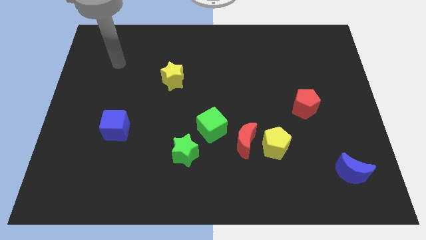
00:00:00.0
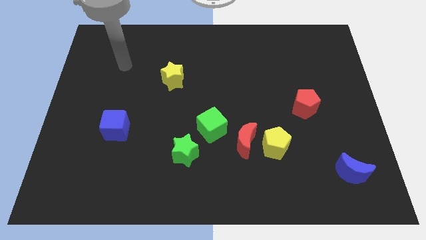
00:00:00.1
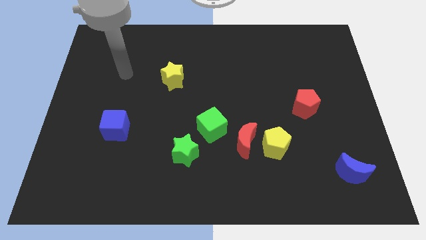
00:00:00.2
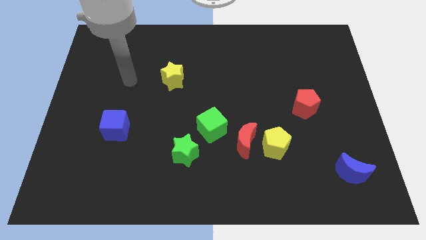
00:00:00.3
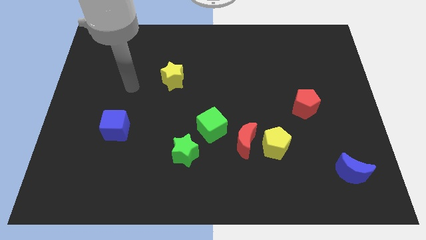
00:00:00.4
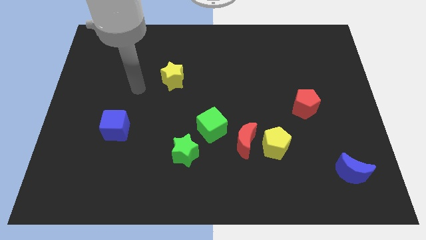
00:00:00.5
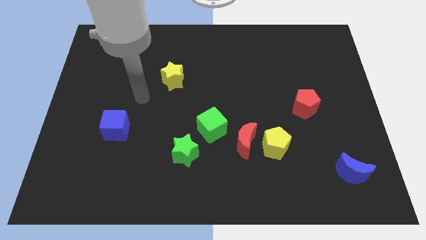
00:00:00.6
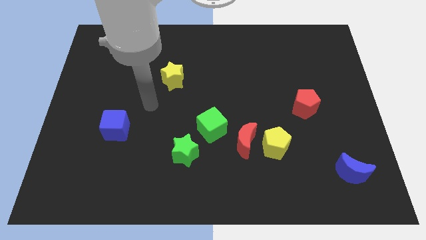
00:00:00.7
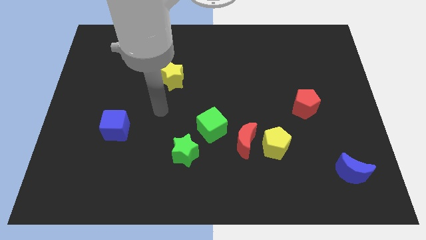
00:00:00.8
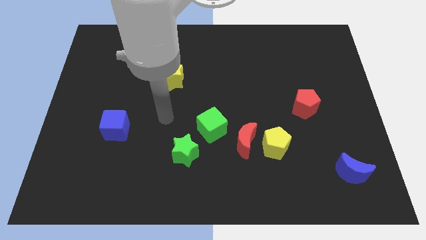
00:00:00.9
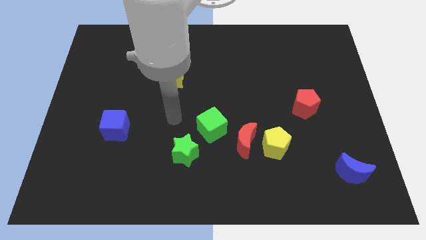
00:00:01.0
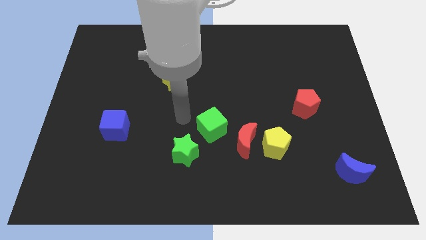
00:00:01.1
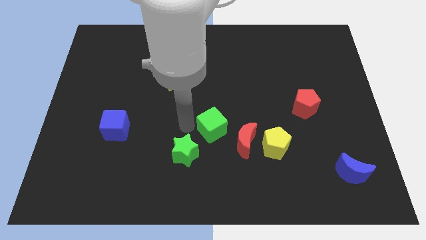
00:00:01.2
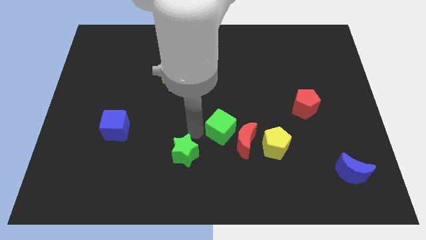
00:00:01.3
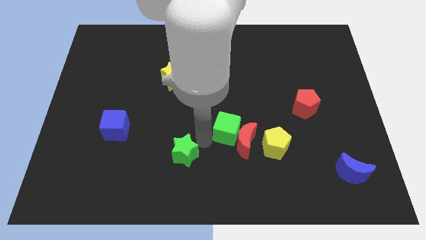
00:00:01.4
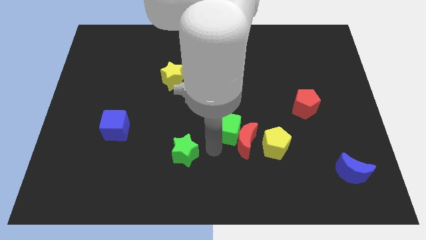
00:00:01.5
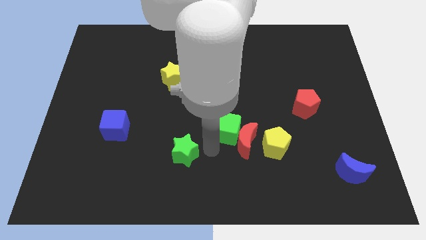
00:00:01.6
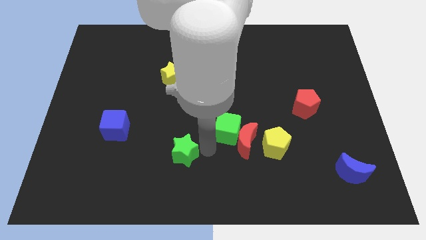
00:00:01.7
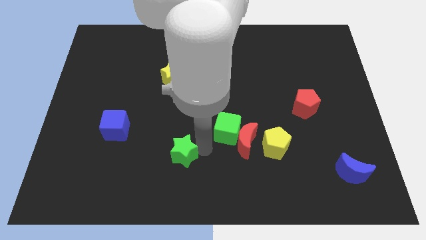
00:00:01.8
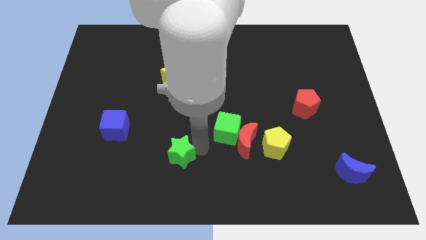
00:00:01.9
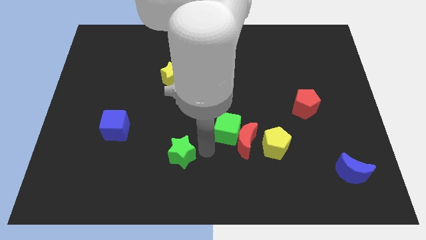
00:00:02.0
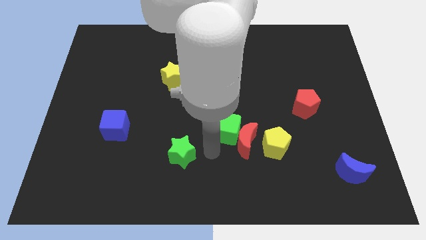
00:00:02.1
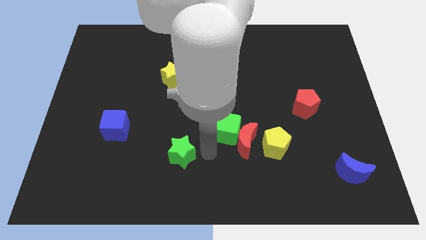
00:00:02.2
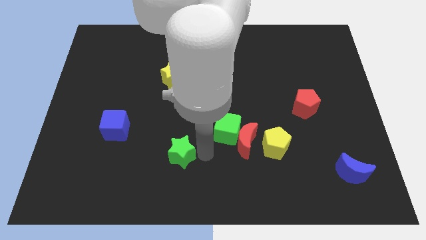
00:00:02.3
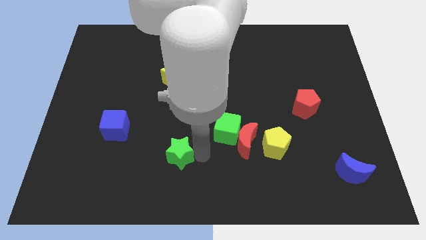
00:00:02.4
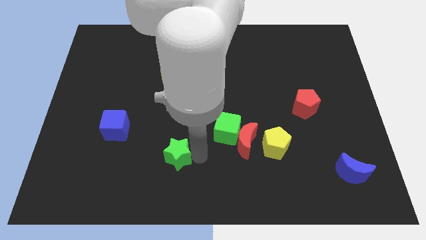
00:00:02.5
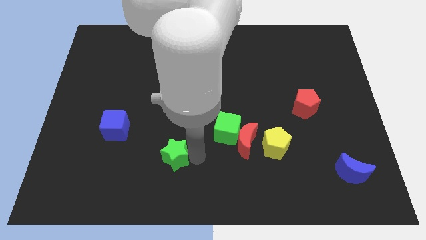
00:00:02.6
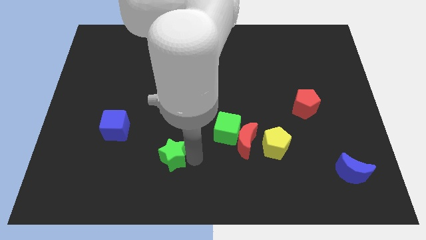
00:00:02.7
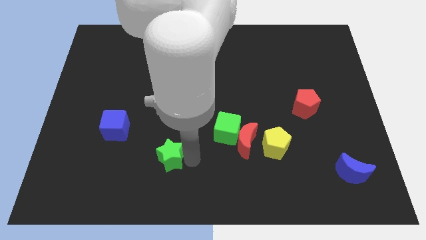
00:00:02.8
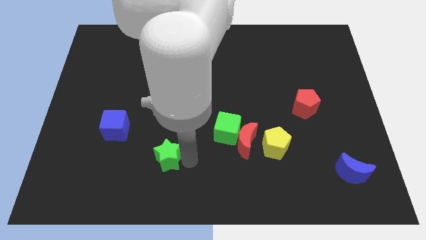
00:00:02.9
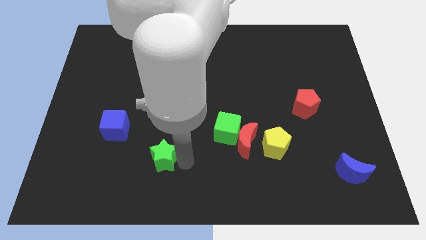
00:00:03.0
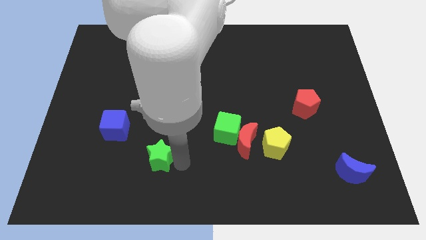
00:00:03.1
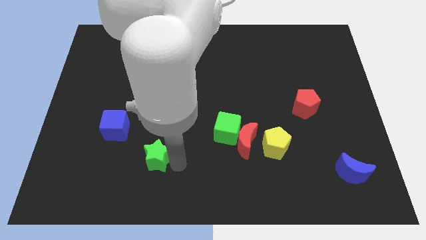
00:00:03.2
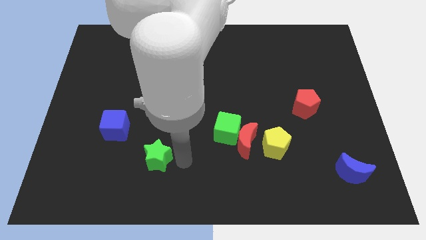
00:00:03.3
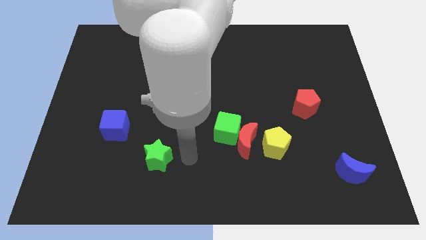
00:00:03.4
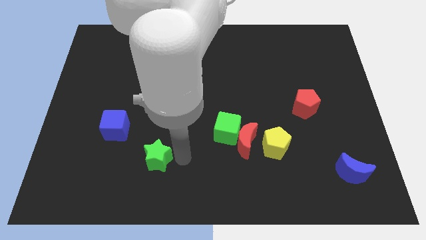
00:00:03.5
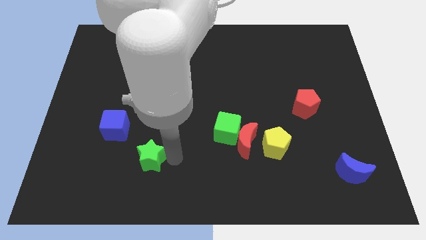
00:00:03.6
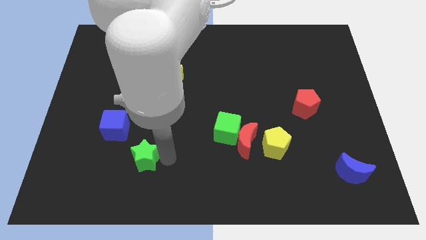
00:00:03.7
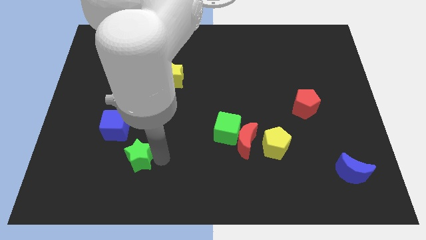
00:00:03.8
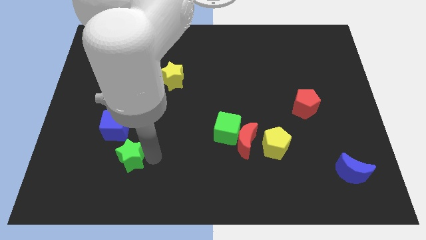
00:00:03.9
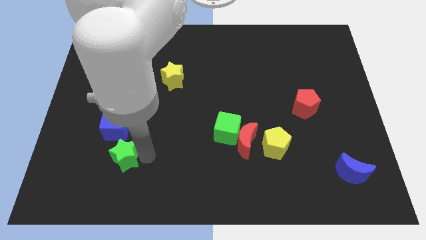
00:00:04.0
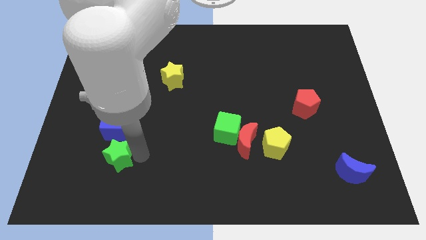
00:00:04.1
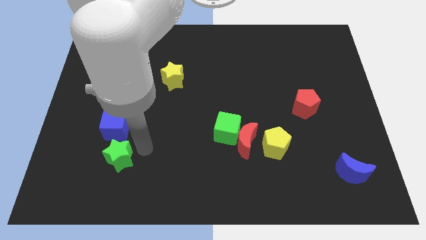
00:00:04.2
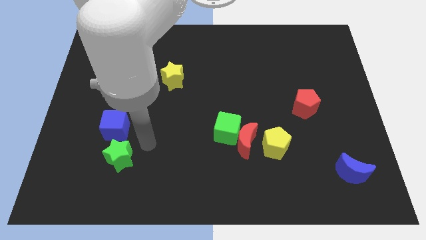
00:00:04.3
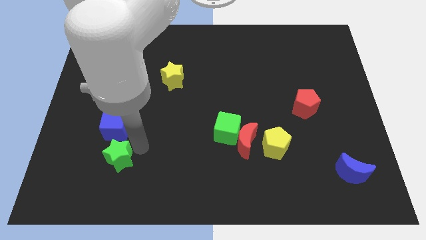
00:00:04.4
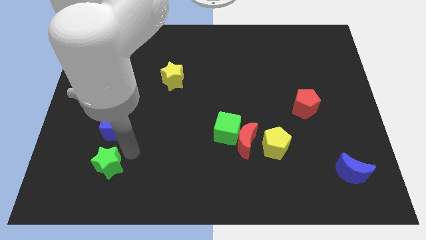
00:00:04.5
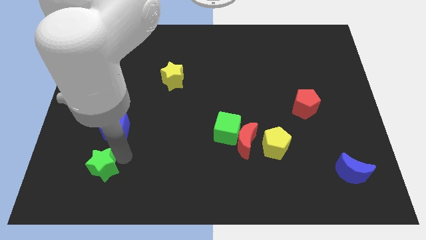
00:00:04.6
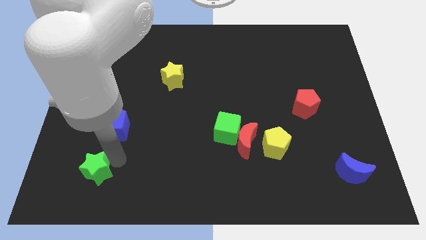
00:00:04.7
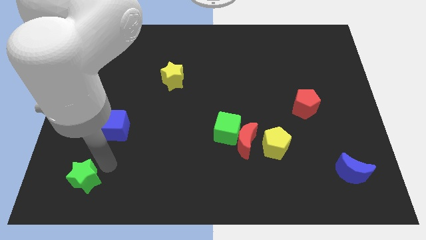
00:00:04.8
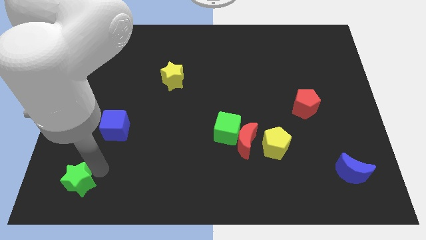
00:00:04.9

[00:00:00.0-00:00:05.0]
put the green star to the bottom left corner

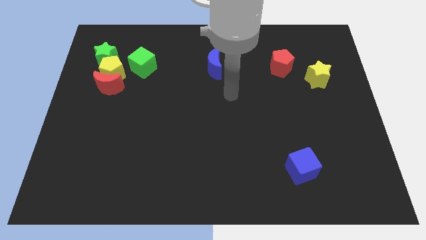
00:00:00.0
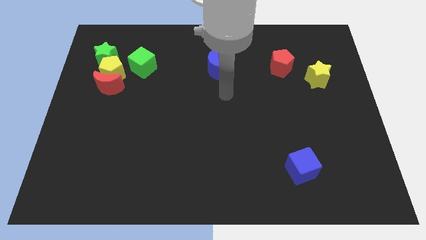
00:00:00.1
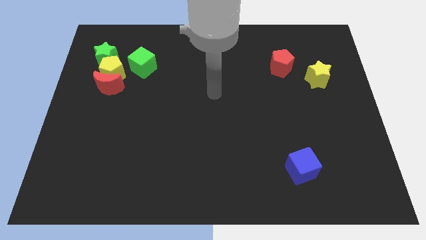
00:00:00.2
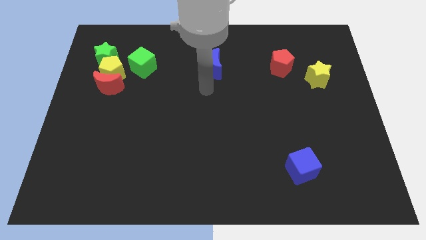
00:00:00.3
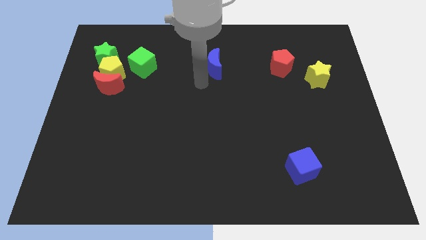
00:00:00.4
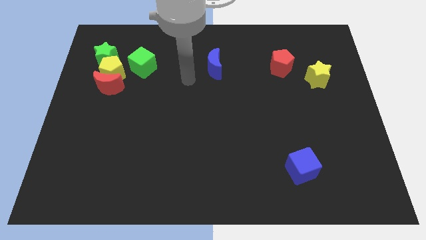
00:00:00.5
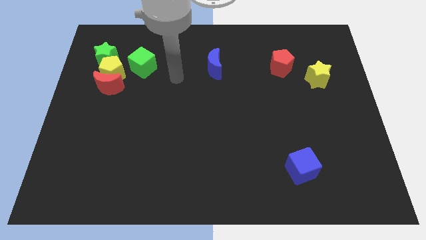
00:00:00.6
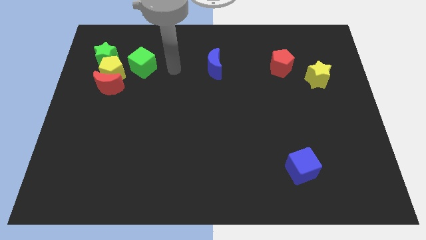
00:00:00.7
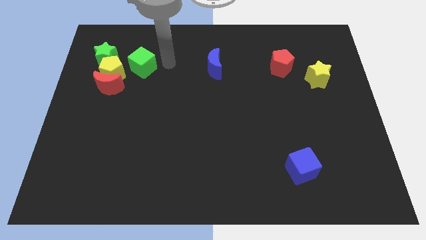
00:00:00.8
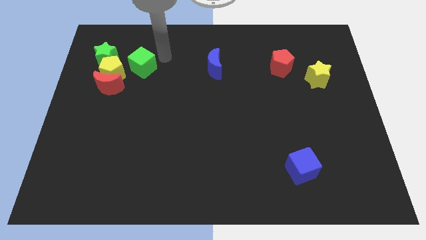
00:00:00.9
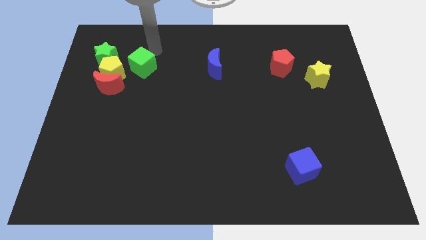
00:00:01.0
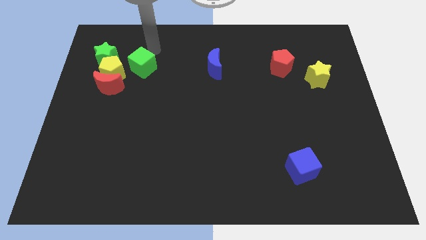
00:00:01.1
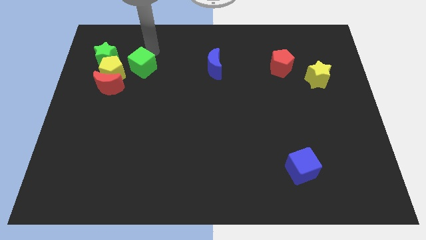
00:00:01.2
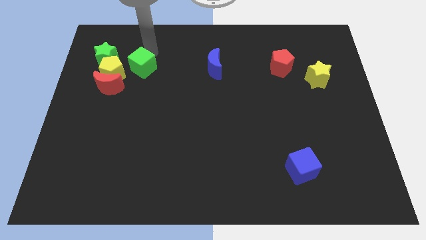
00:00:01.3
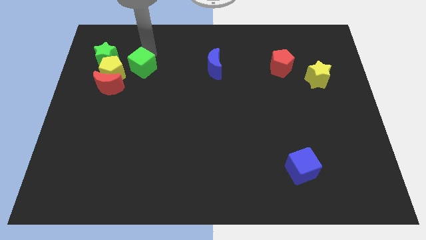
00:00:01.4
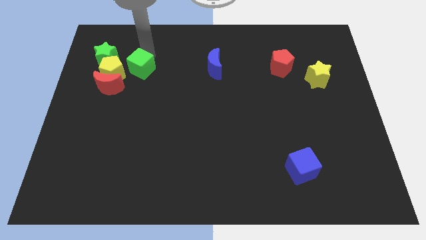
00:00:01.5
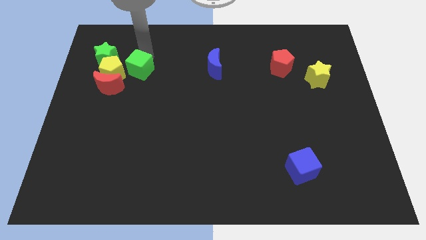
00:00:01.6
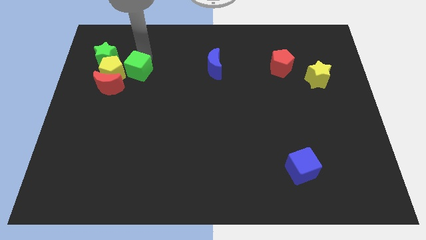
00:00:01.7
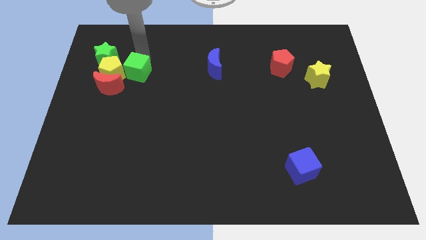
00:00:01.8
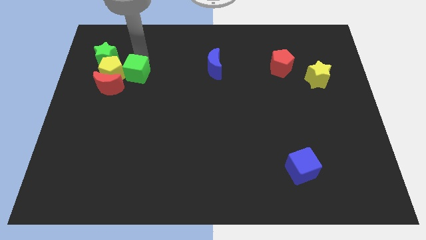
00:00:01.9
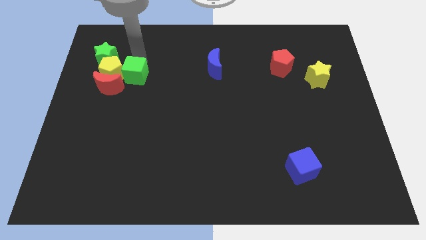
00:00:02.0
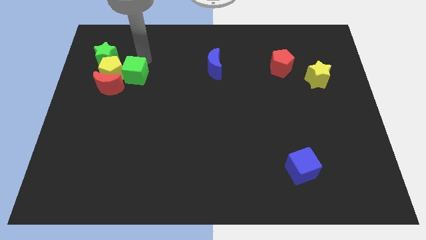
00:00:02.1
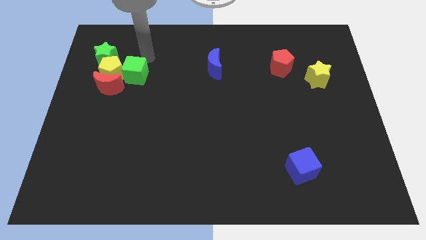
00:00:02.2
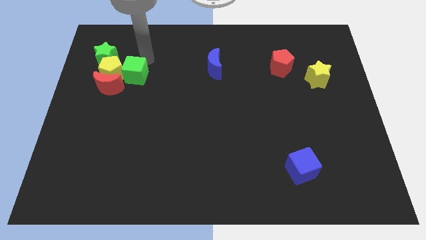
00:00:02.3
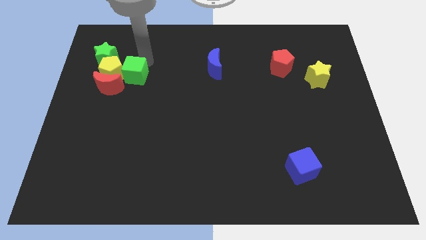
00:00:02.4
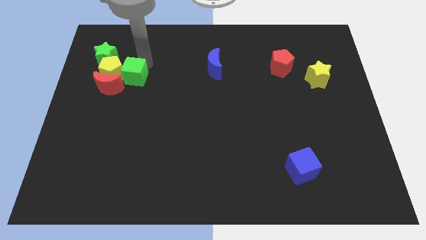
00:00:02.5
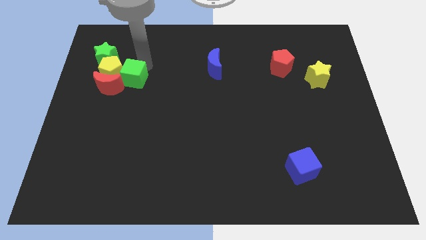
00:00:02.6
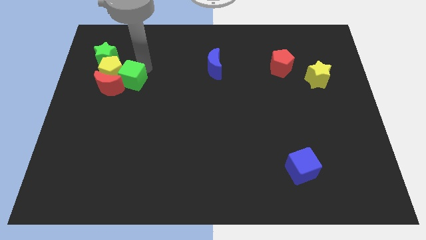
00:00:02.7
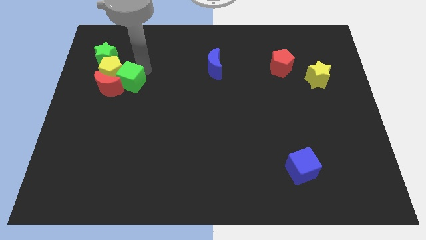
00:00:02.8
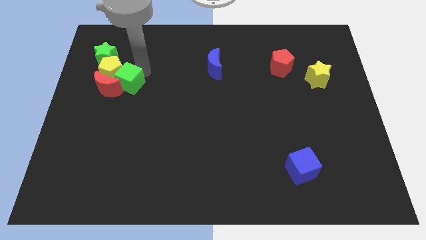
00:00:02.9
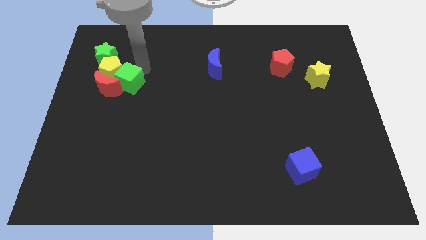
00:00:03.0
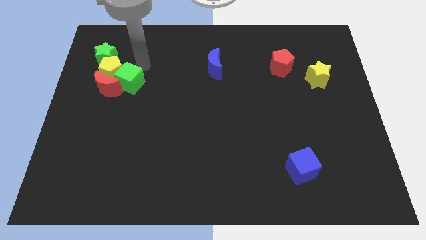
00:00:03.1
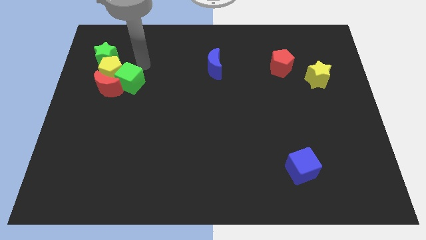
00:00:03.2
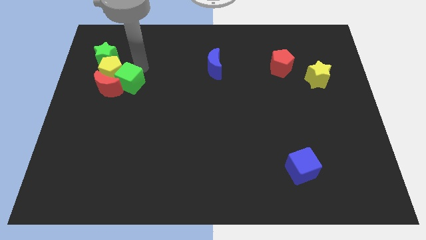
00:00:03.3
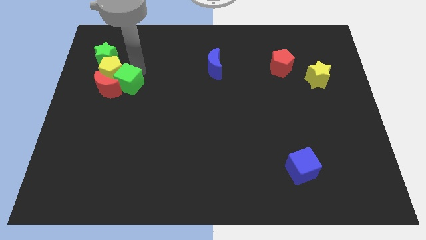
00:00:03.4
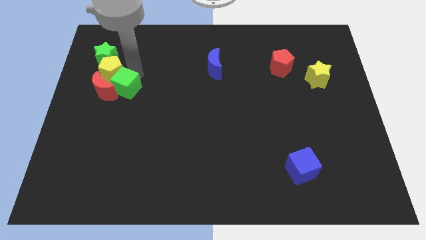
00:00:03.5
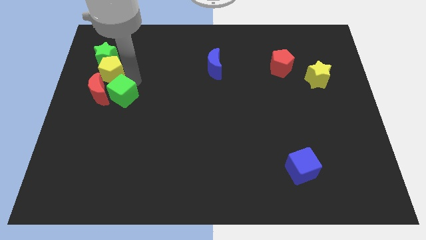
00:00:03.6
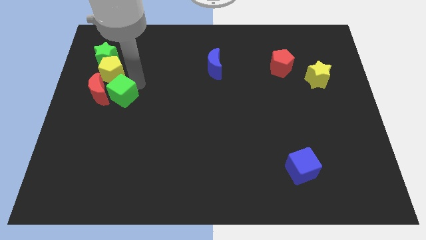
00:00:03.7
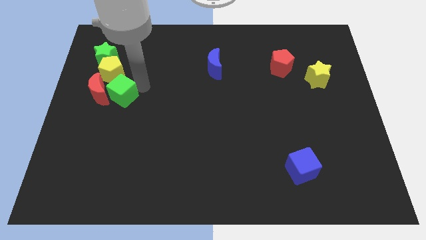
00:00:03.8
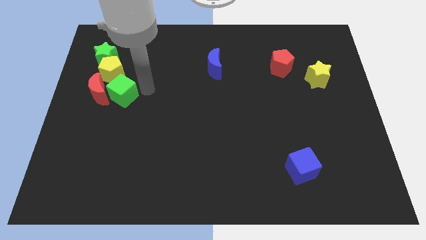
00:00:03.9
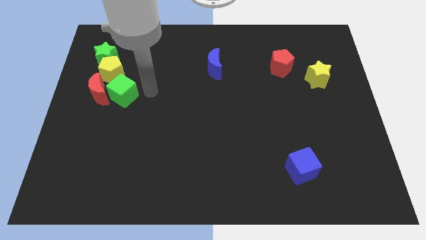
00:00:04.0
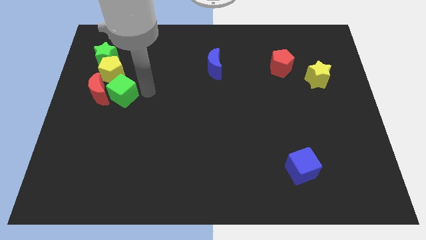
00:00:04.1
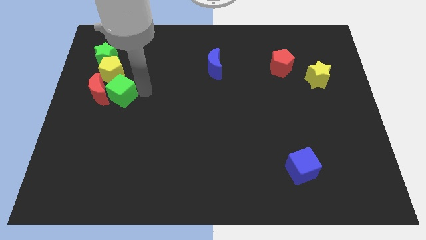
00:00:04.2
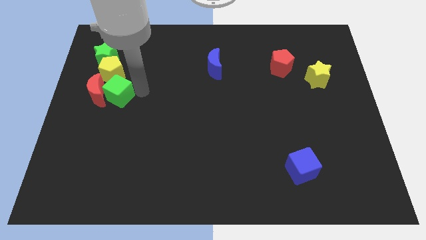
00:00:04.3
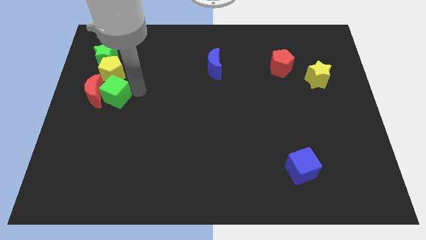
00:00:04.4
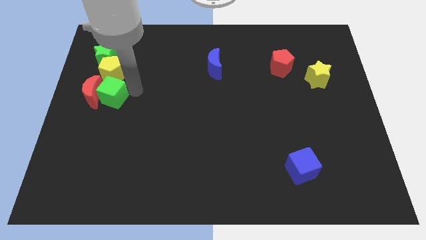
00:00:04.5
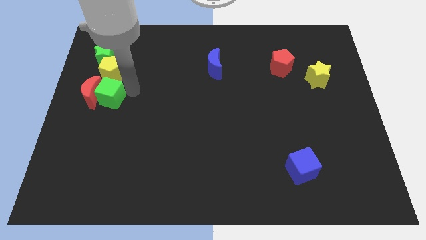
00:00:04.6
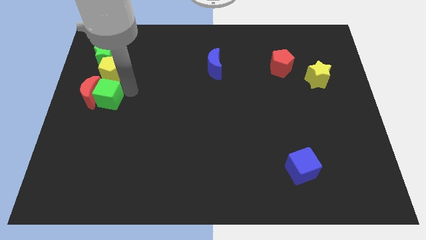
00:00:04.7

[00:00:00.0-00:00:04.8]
push the green cube to the center left
